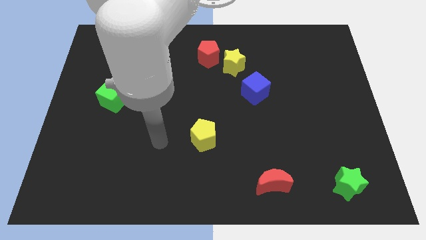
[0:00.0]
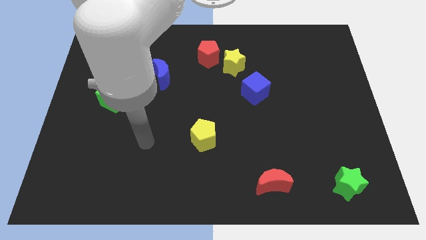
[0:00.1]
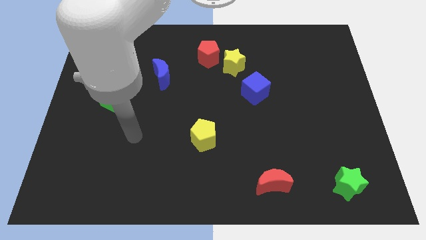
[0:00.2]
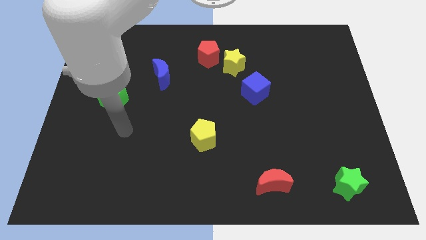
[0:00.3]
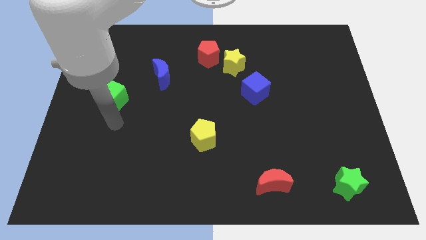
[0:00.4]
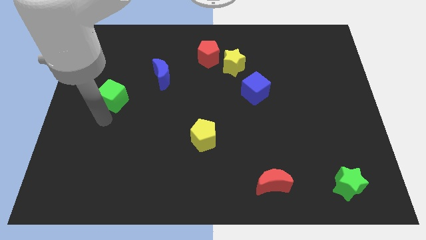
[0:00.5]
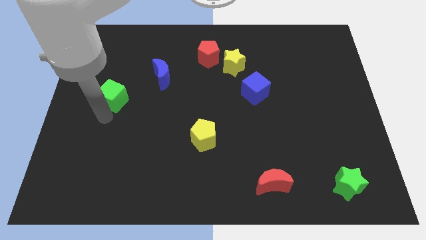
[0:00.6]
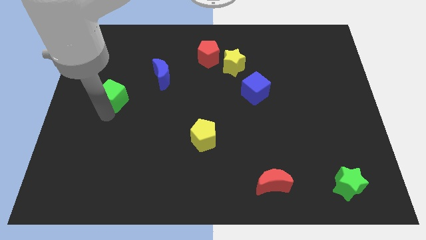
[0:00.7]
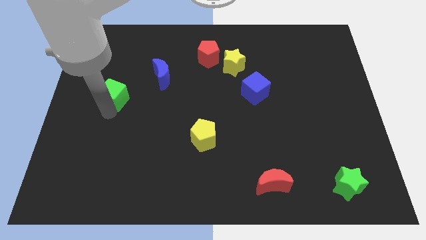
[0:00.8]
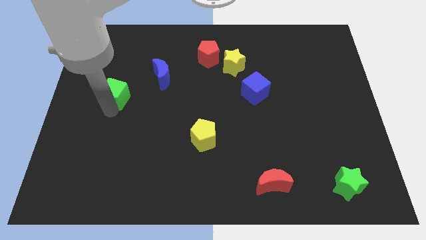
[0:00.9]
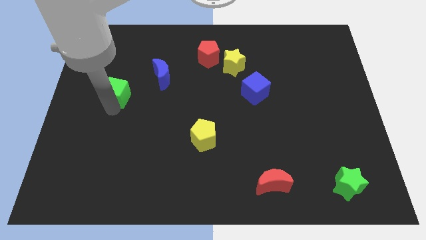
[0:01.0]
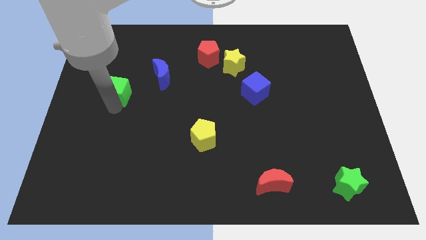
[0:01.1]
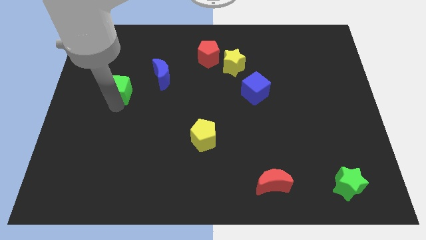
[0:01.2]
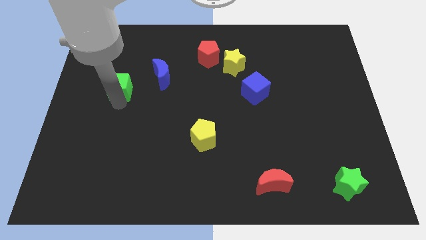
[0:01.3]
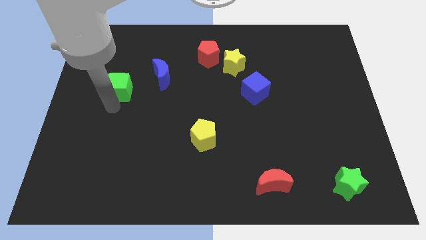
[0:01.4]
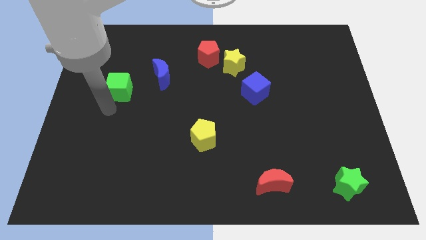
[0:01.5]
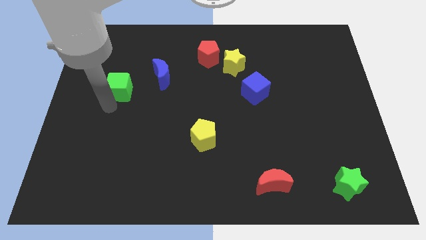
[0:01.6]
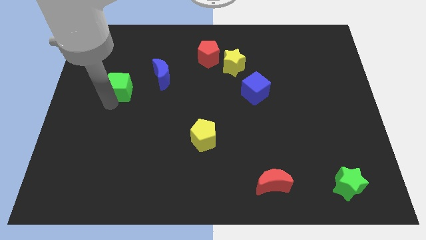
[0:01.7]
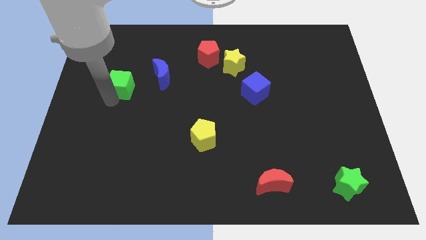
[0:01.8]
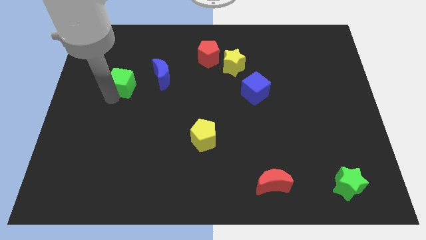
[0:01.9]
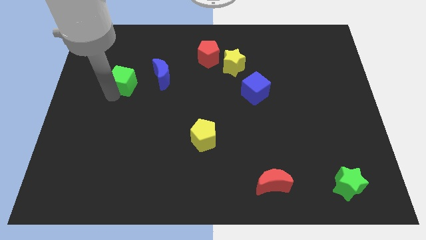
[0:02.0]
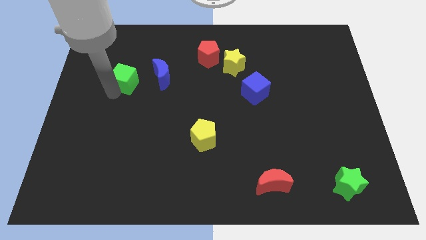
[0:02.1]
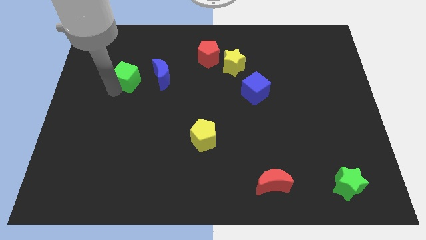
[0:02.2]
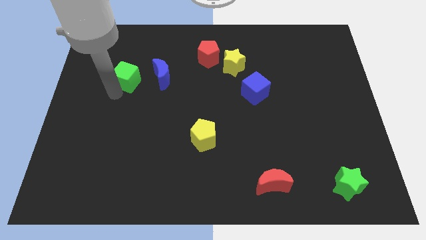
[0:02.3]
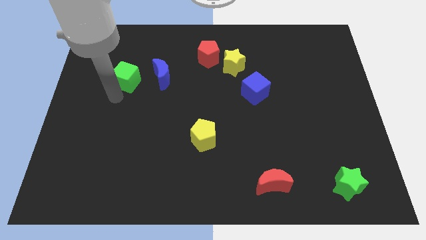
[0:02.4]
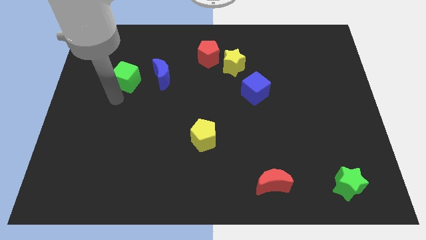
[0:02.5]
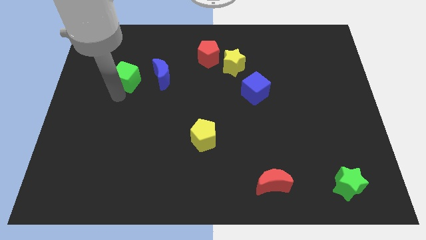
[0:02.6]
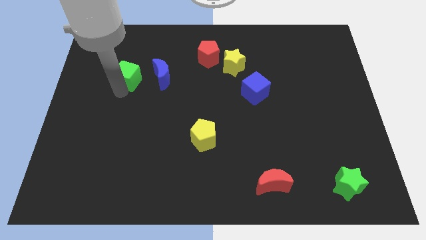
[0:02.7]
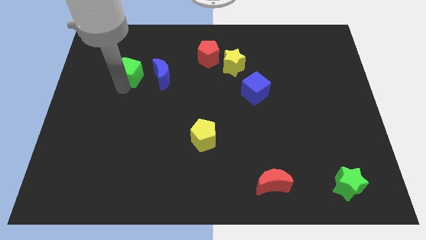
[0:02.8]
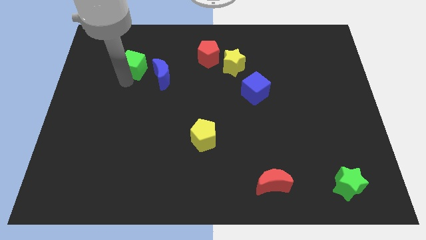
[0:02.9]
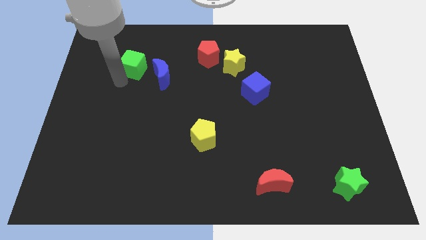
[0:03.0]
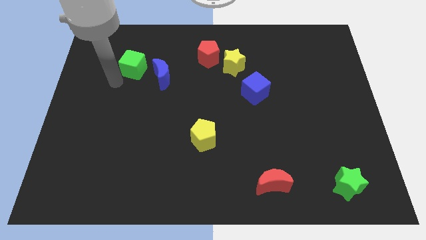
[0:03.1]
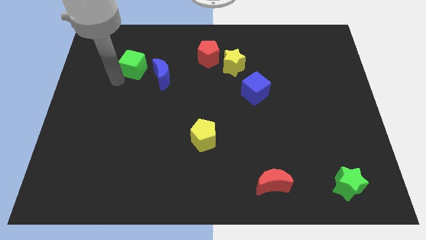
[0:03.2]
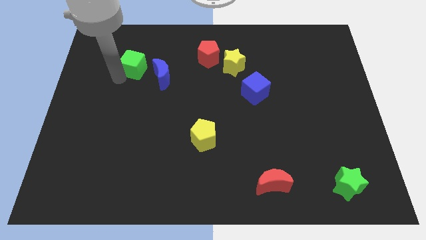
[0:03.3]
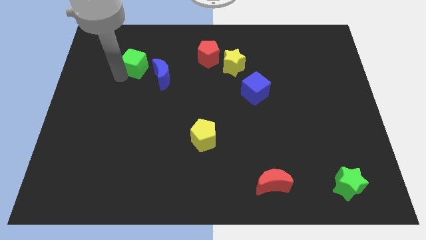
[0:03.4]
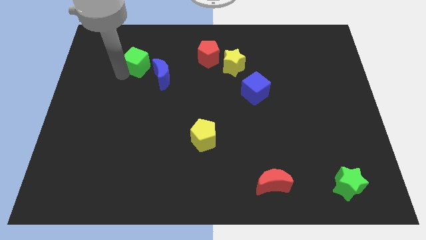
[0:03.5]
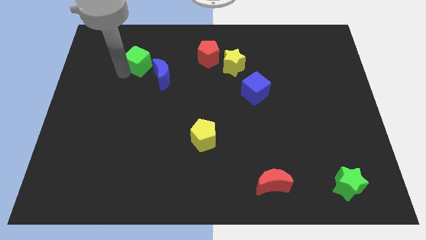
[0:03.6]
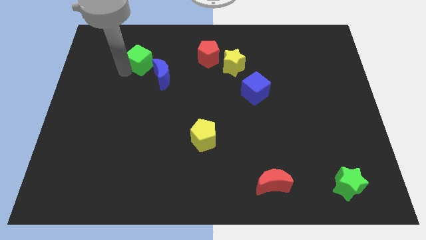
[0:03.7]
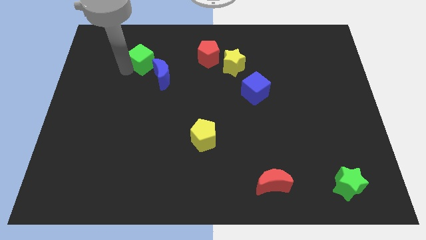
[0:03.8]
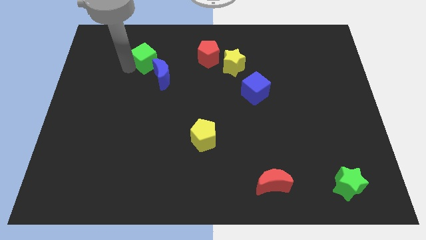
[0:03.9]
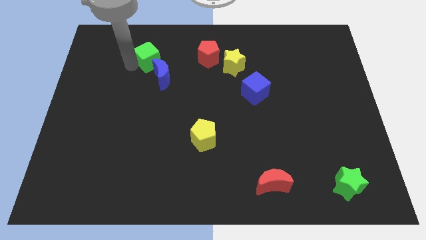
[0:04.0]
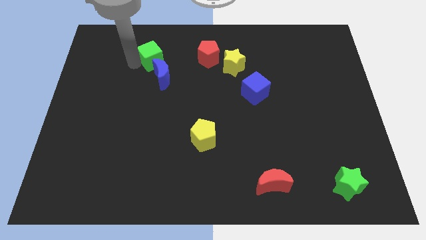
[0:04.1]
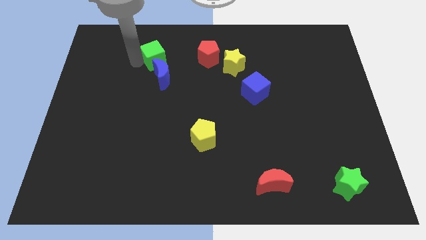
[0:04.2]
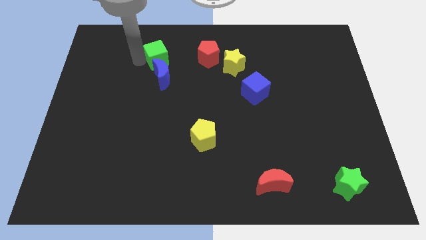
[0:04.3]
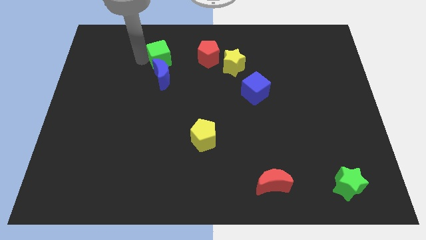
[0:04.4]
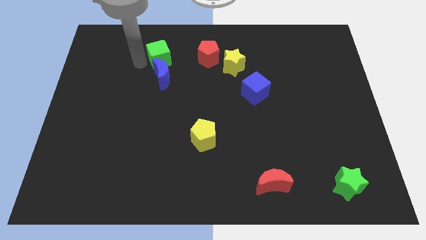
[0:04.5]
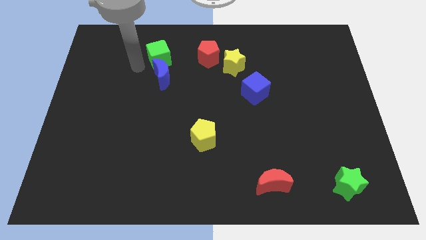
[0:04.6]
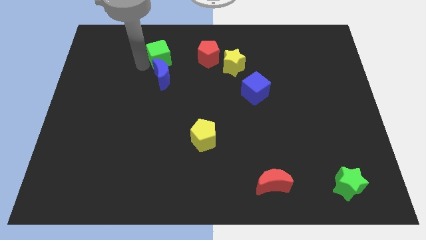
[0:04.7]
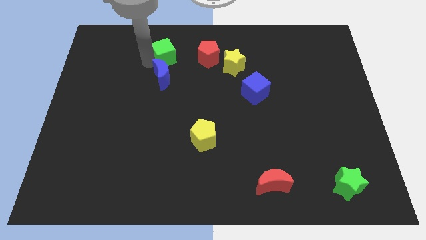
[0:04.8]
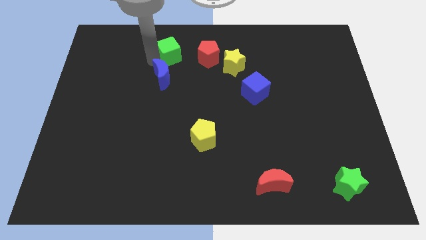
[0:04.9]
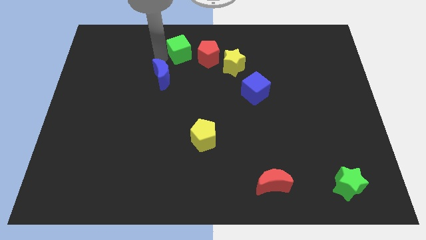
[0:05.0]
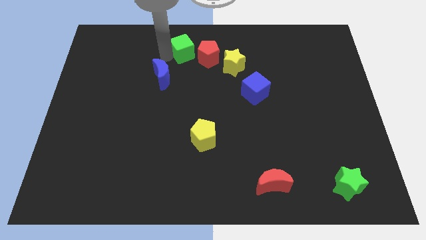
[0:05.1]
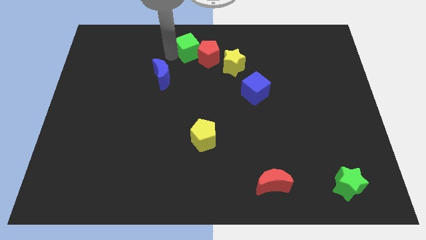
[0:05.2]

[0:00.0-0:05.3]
move the green cube to the top side

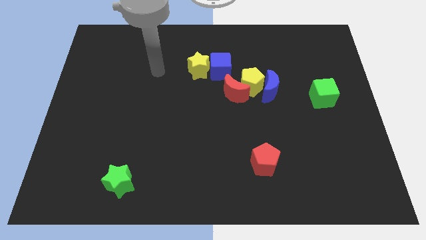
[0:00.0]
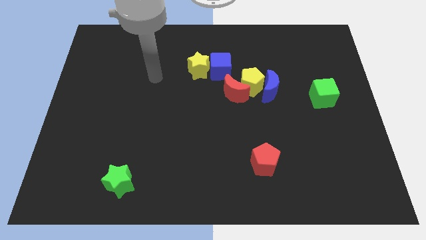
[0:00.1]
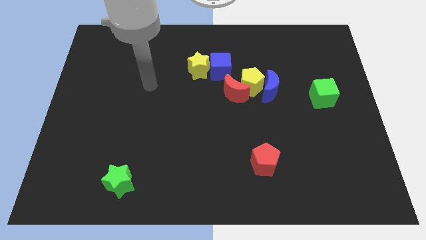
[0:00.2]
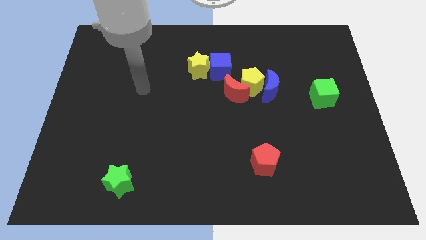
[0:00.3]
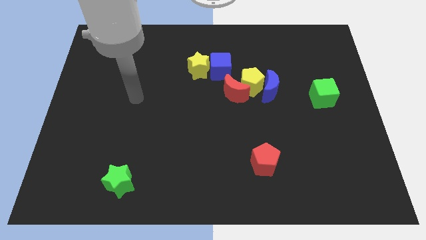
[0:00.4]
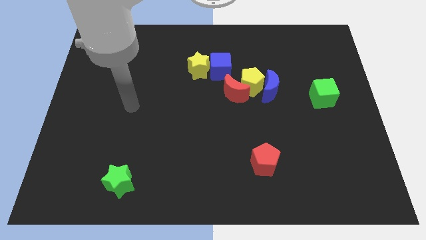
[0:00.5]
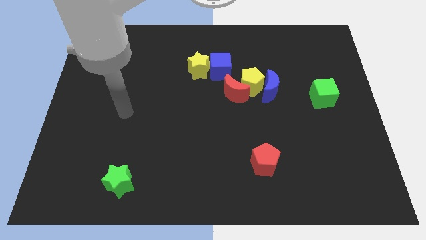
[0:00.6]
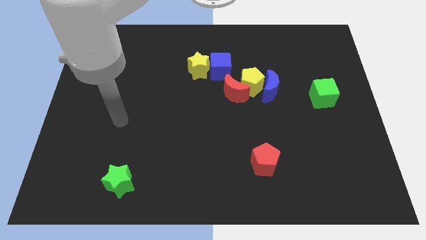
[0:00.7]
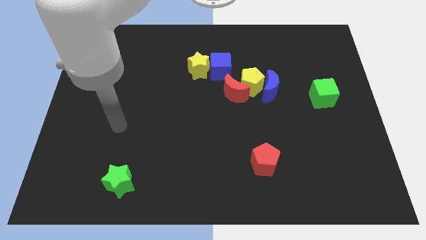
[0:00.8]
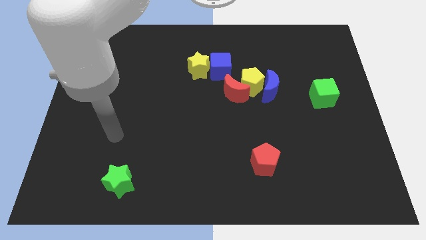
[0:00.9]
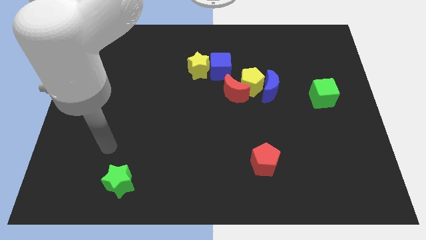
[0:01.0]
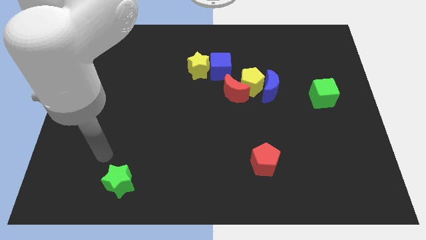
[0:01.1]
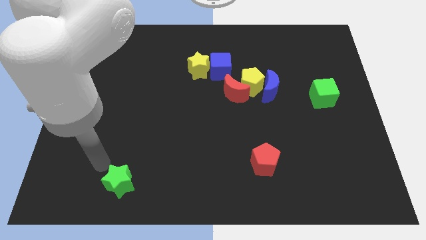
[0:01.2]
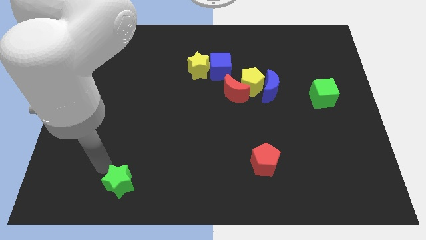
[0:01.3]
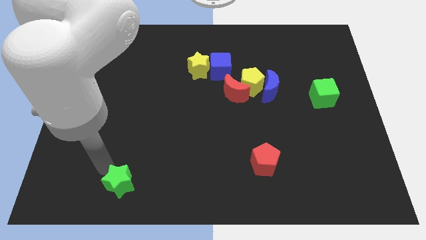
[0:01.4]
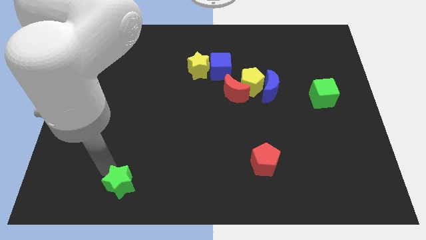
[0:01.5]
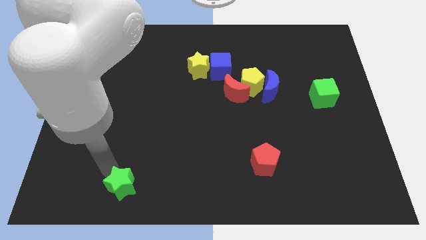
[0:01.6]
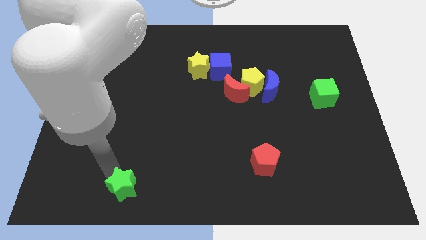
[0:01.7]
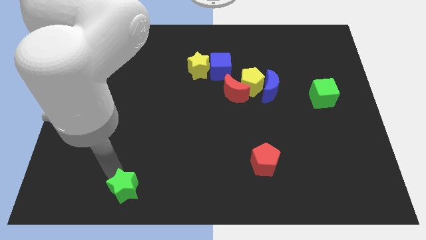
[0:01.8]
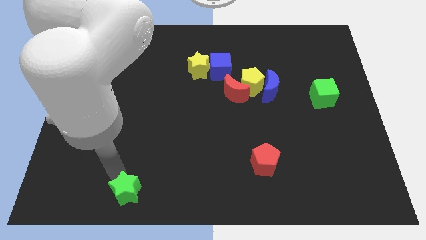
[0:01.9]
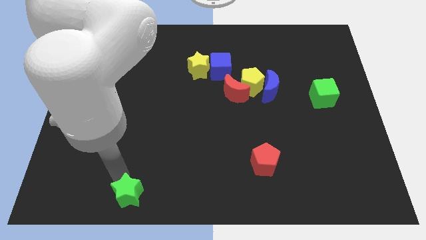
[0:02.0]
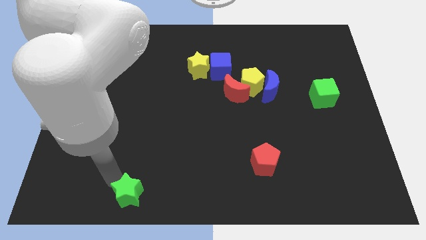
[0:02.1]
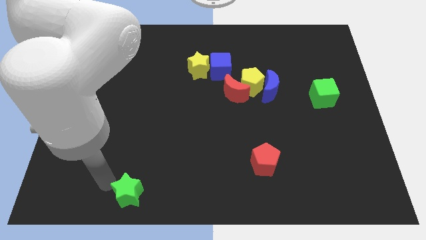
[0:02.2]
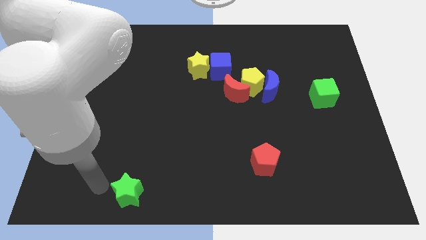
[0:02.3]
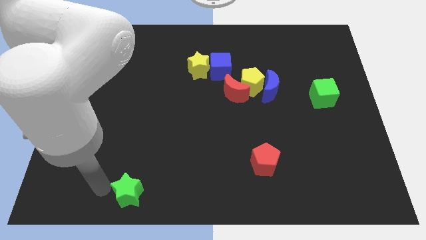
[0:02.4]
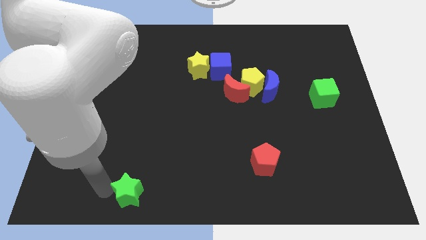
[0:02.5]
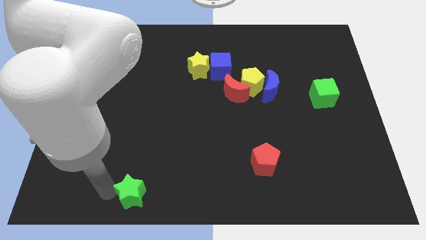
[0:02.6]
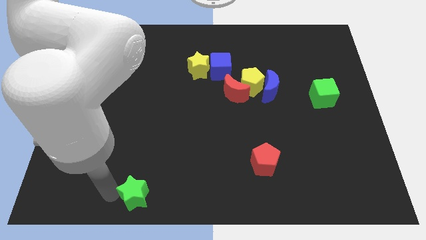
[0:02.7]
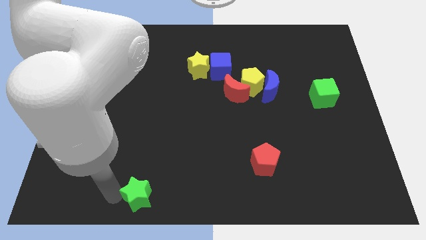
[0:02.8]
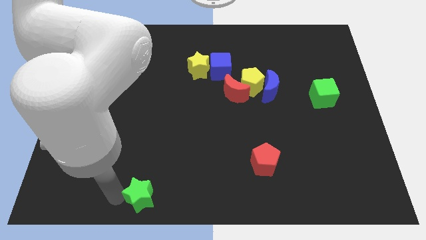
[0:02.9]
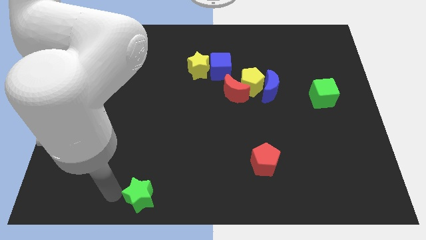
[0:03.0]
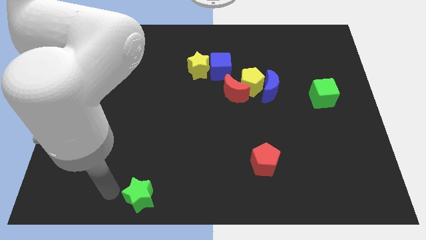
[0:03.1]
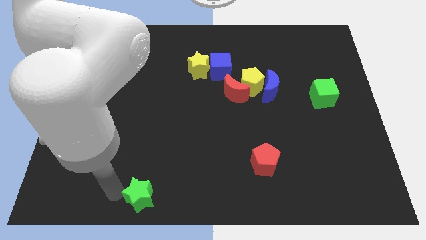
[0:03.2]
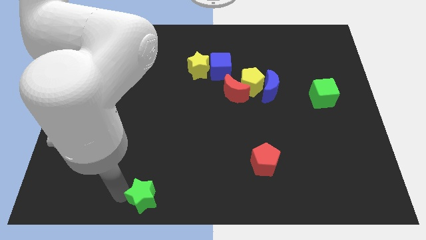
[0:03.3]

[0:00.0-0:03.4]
move the green star to the bottom
